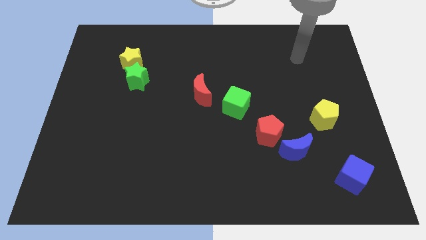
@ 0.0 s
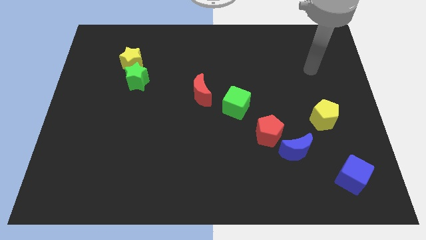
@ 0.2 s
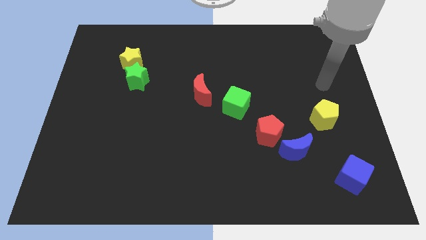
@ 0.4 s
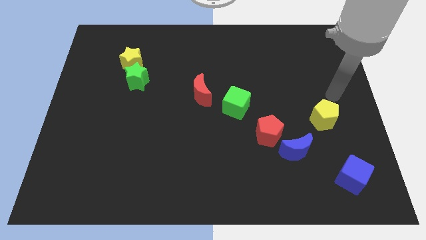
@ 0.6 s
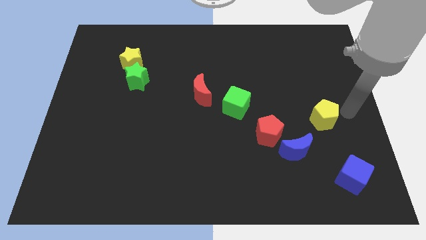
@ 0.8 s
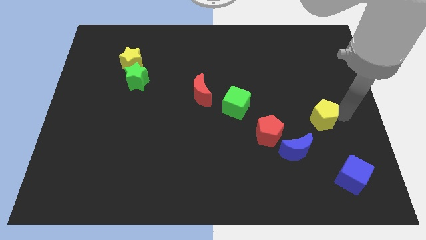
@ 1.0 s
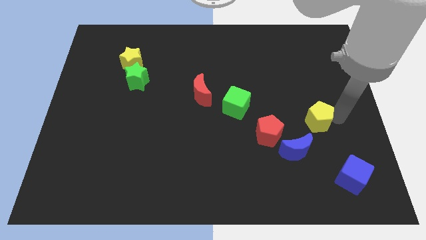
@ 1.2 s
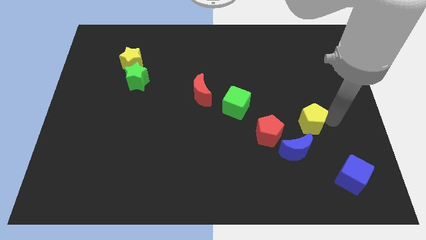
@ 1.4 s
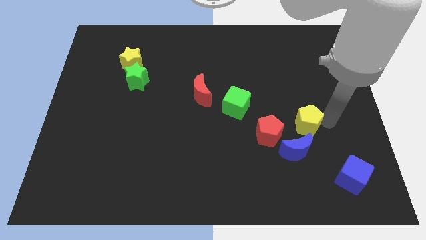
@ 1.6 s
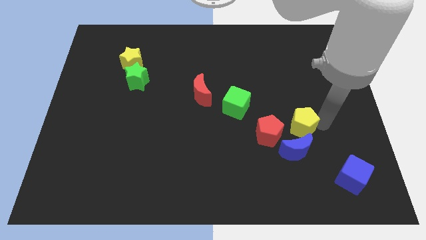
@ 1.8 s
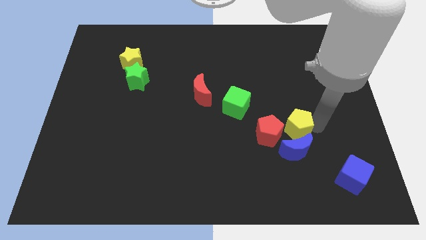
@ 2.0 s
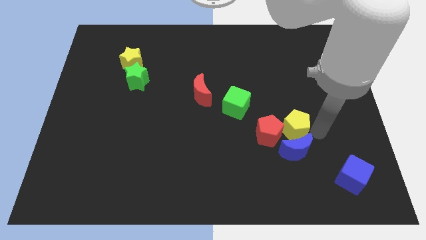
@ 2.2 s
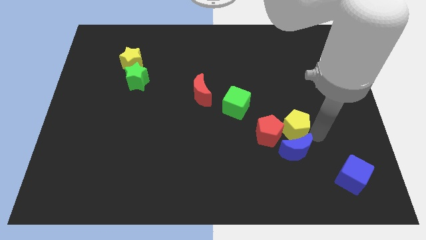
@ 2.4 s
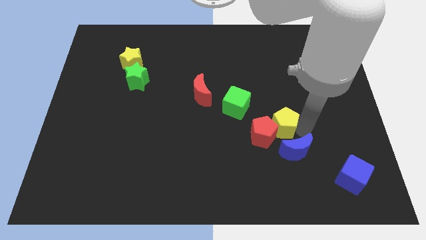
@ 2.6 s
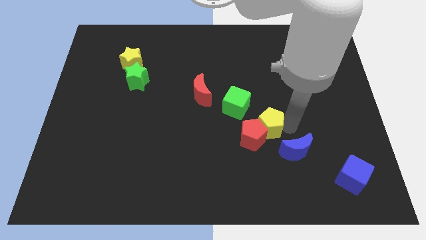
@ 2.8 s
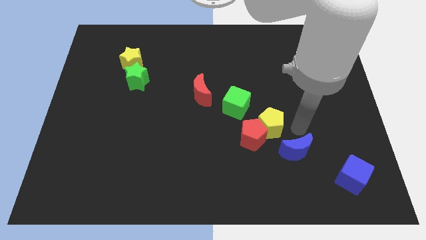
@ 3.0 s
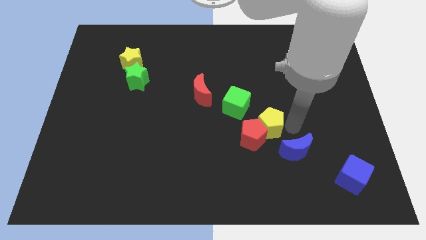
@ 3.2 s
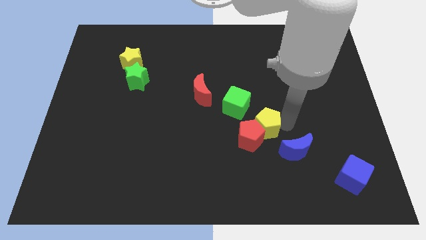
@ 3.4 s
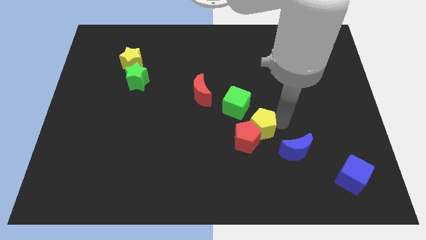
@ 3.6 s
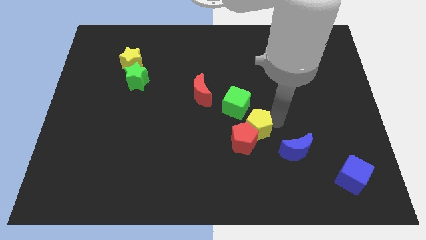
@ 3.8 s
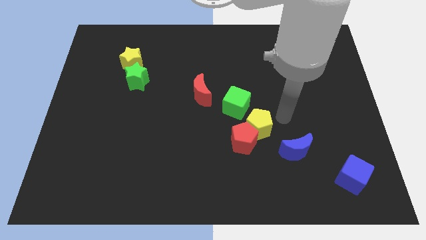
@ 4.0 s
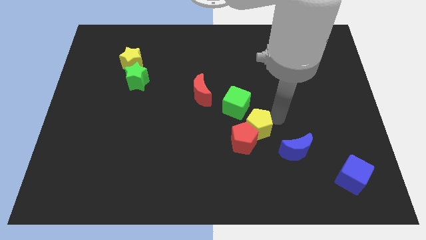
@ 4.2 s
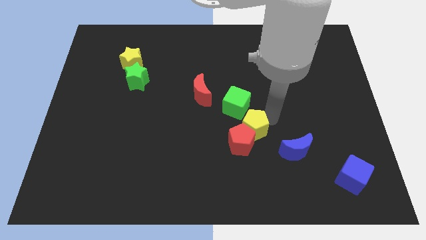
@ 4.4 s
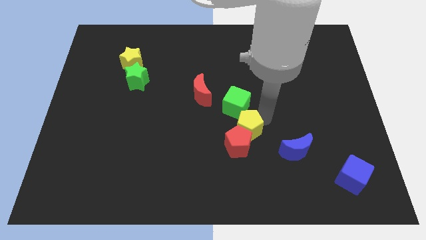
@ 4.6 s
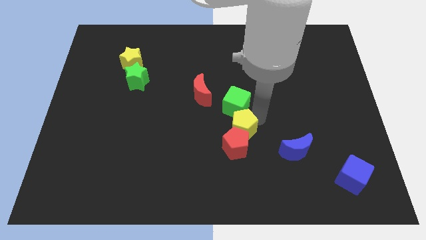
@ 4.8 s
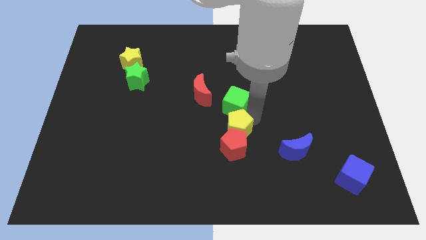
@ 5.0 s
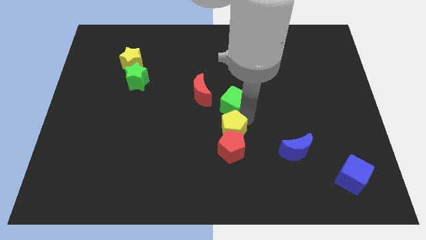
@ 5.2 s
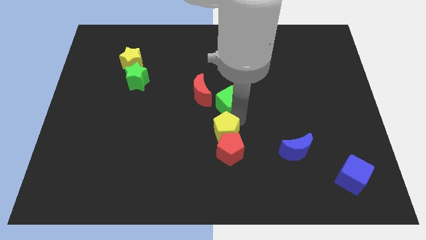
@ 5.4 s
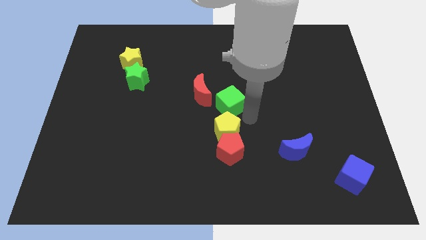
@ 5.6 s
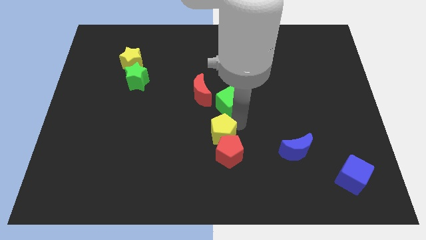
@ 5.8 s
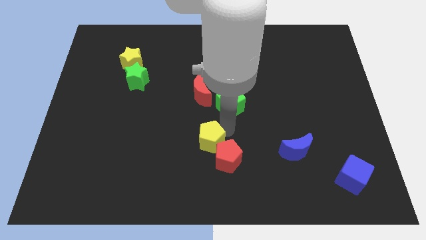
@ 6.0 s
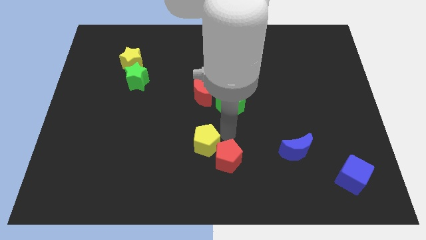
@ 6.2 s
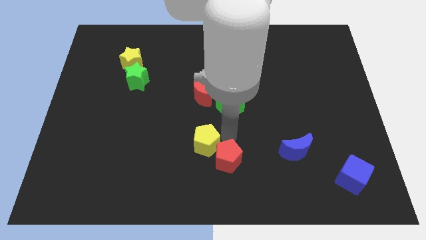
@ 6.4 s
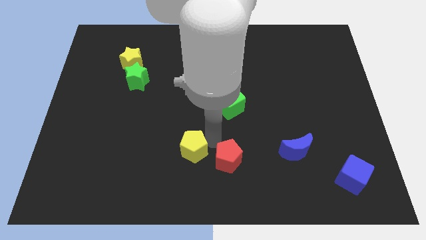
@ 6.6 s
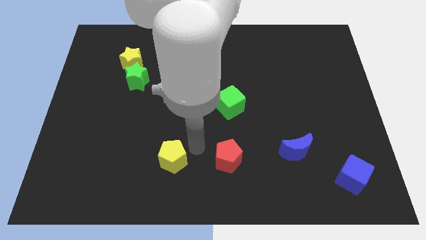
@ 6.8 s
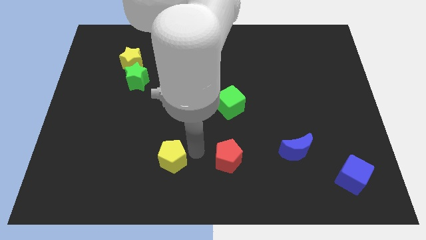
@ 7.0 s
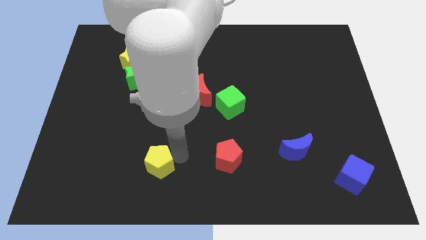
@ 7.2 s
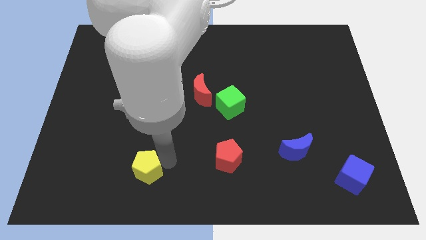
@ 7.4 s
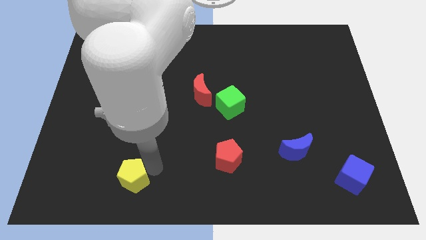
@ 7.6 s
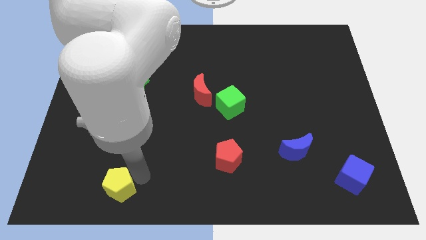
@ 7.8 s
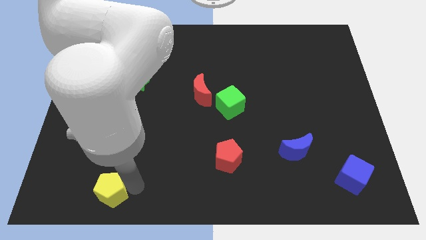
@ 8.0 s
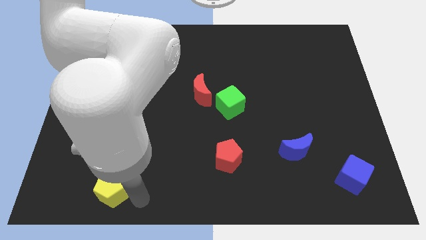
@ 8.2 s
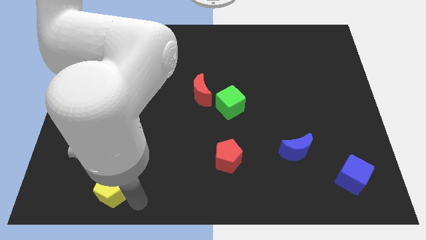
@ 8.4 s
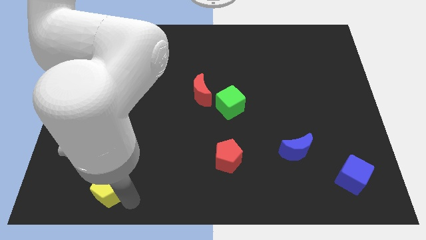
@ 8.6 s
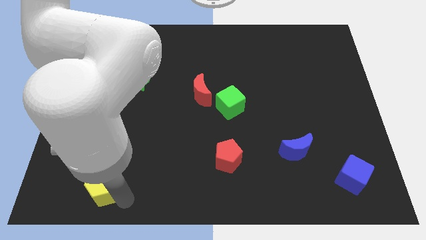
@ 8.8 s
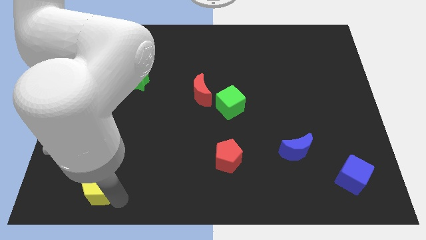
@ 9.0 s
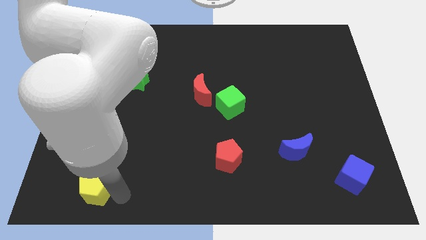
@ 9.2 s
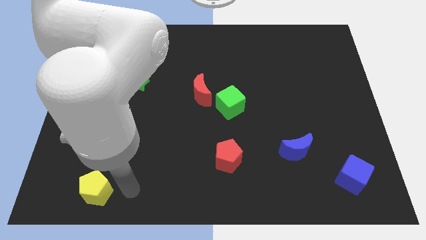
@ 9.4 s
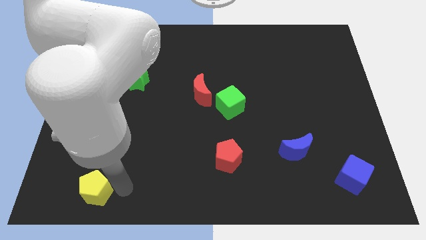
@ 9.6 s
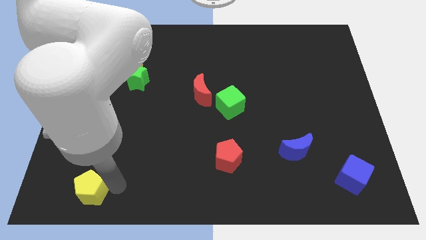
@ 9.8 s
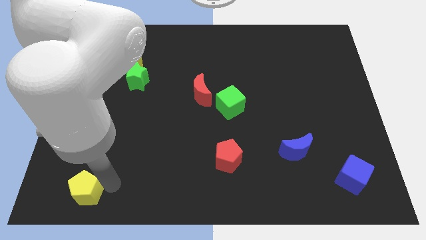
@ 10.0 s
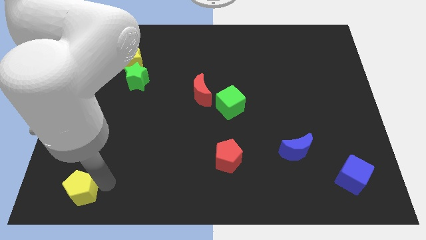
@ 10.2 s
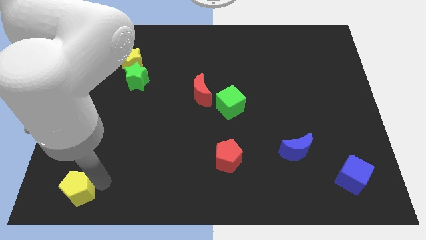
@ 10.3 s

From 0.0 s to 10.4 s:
move the yellow pentagon to the bottom left

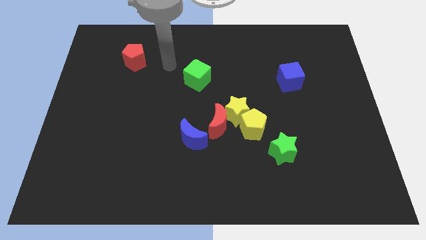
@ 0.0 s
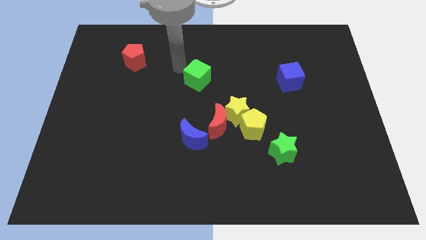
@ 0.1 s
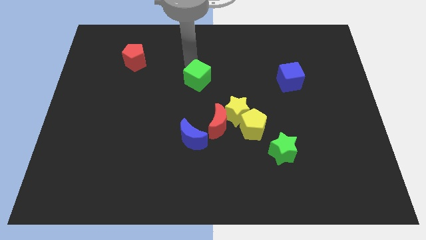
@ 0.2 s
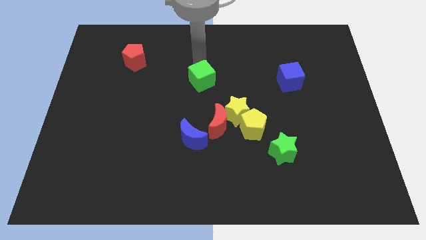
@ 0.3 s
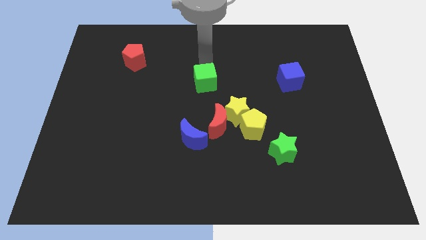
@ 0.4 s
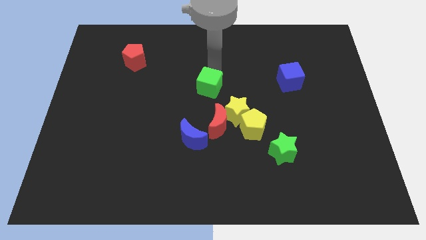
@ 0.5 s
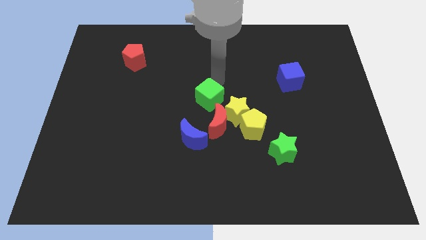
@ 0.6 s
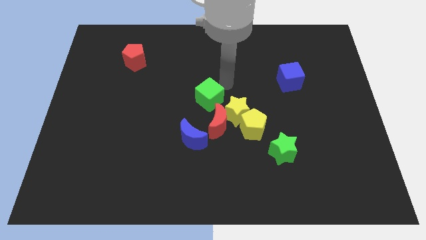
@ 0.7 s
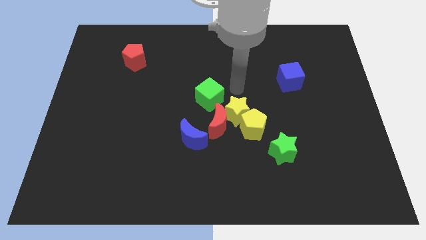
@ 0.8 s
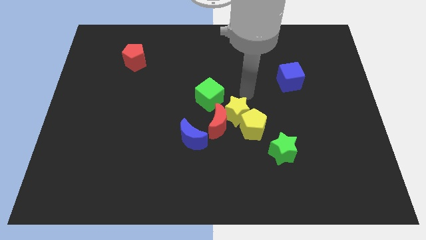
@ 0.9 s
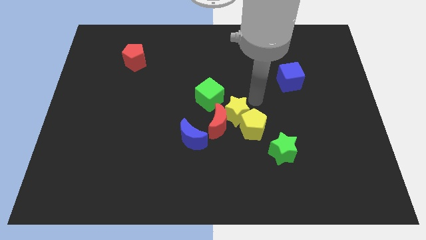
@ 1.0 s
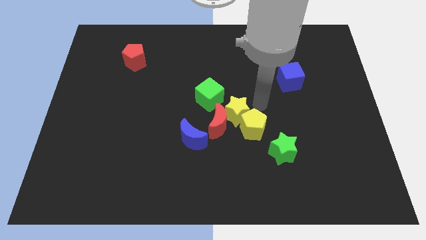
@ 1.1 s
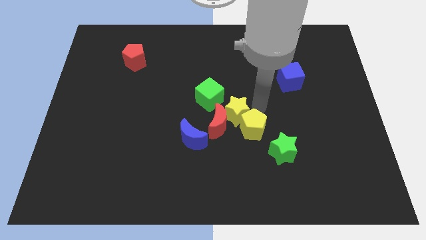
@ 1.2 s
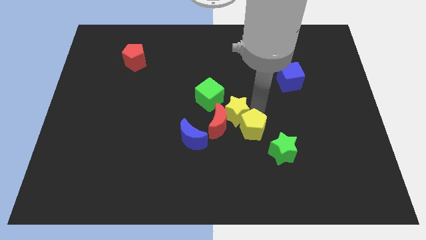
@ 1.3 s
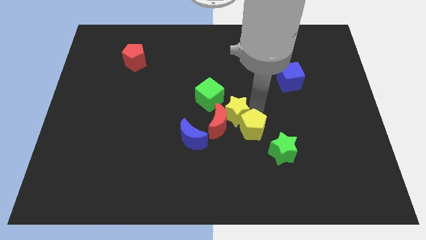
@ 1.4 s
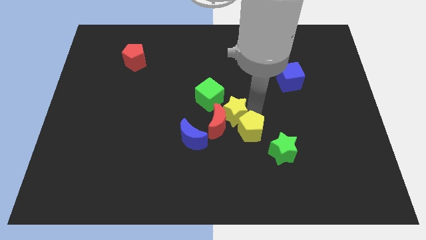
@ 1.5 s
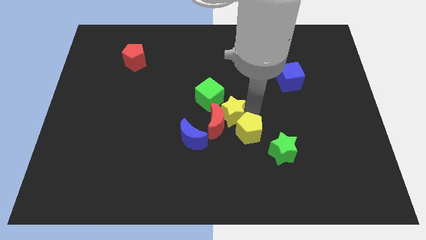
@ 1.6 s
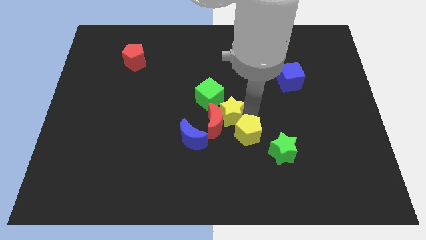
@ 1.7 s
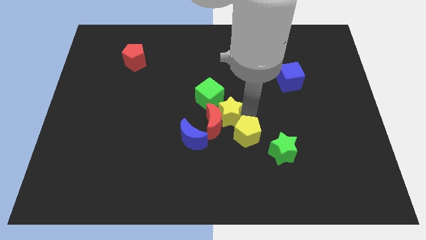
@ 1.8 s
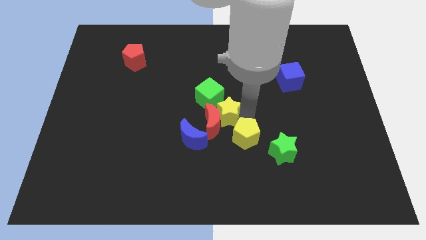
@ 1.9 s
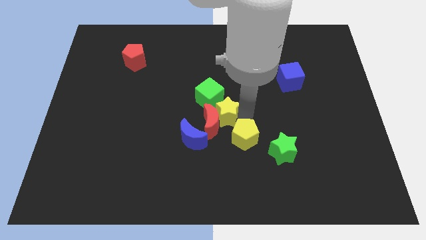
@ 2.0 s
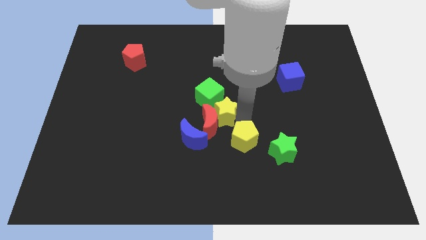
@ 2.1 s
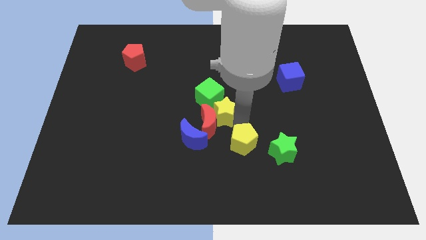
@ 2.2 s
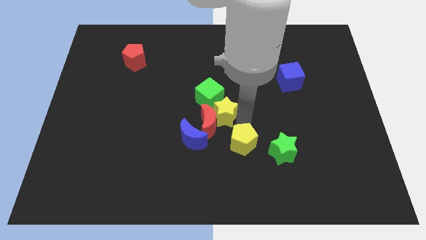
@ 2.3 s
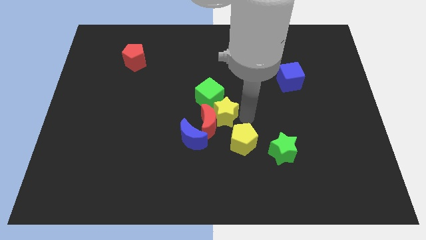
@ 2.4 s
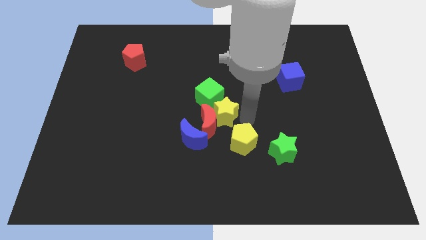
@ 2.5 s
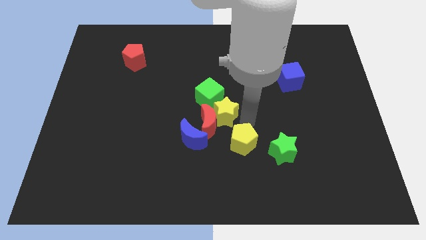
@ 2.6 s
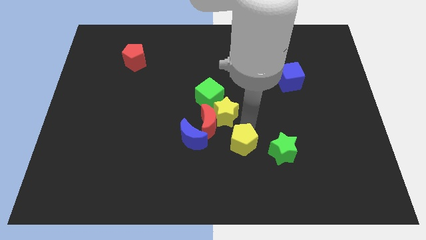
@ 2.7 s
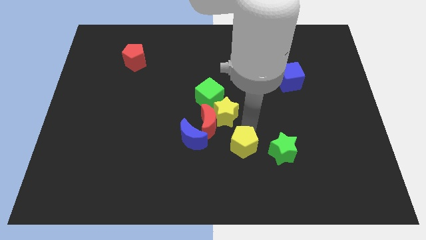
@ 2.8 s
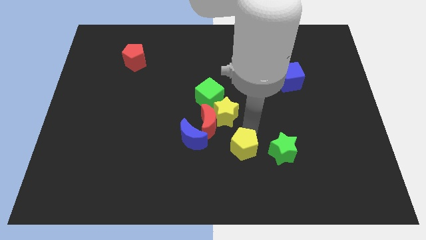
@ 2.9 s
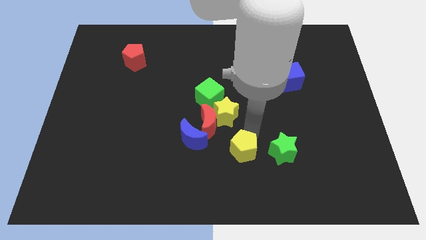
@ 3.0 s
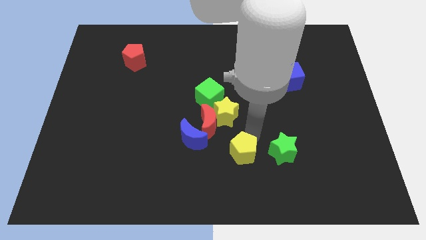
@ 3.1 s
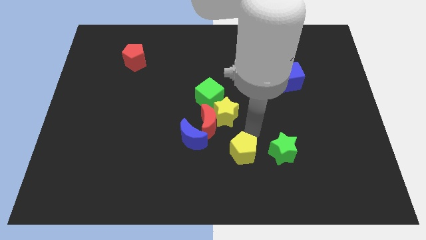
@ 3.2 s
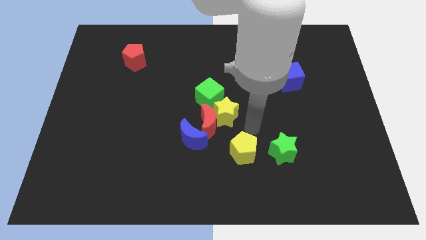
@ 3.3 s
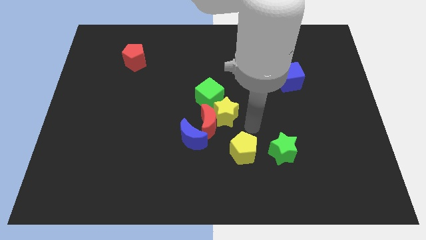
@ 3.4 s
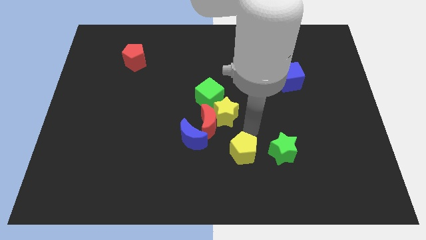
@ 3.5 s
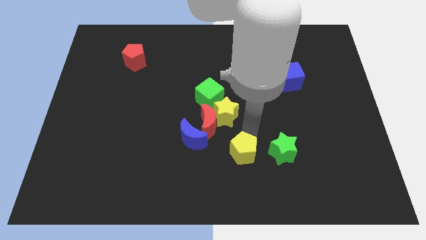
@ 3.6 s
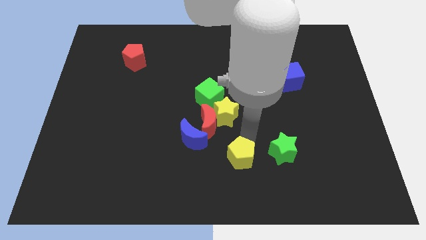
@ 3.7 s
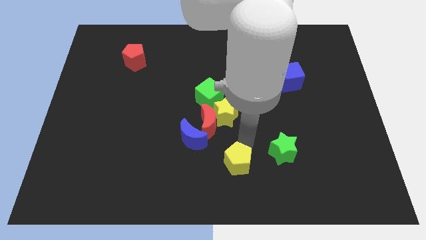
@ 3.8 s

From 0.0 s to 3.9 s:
put the yellow pentagon to the bottom side
